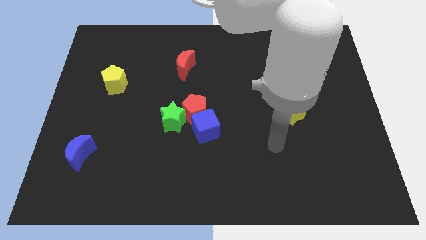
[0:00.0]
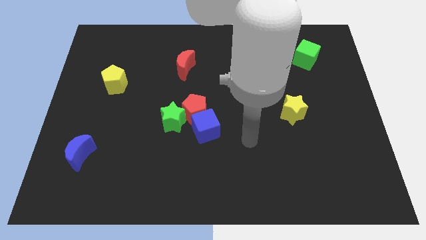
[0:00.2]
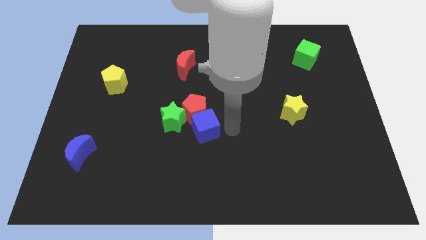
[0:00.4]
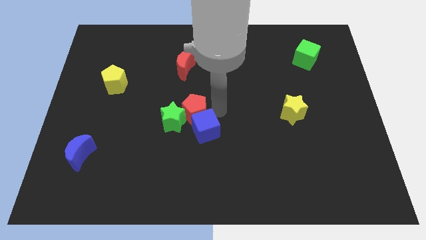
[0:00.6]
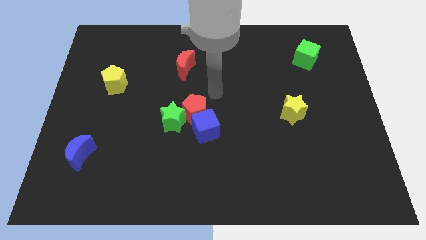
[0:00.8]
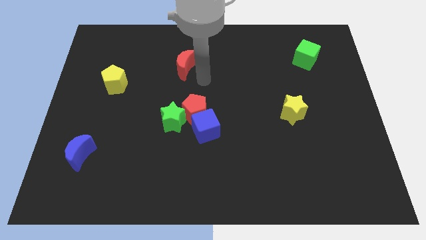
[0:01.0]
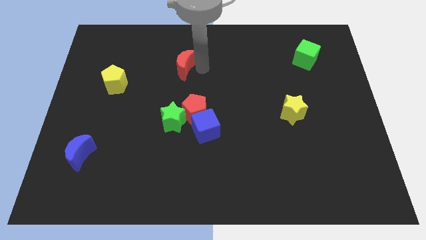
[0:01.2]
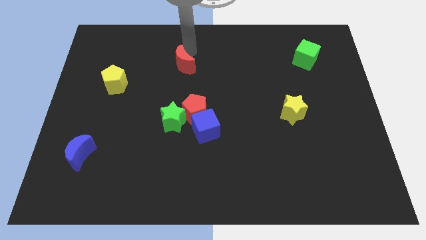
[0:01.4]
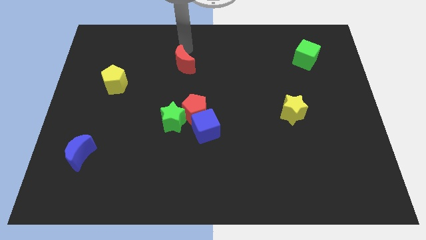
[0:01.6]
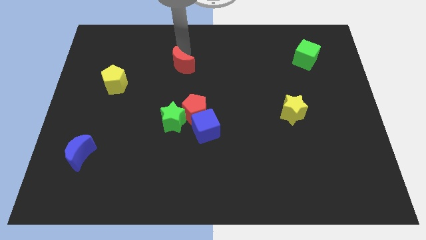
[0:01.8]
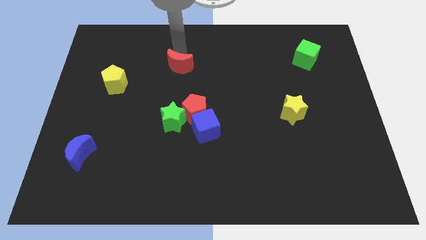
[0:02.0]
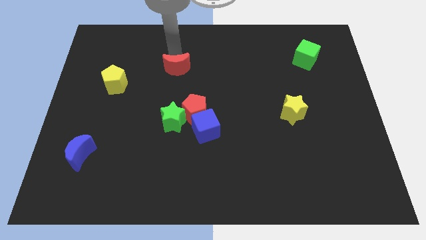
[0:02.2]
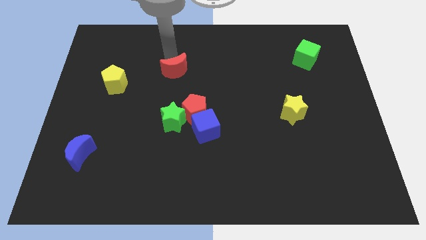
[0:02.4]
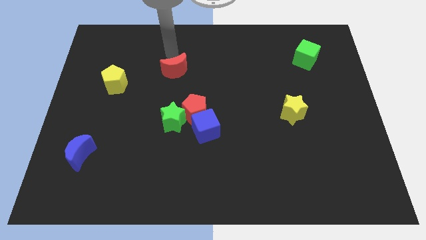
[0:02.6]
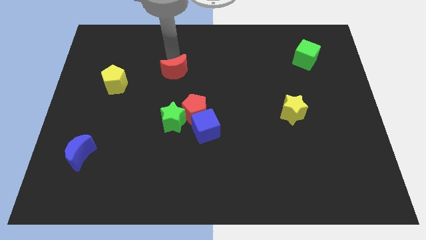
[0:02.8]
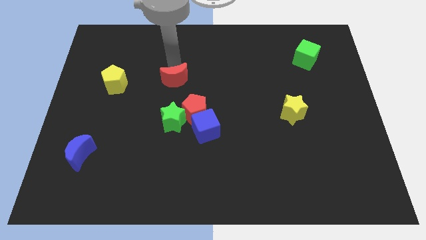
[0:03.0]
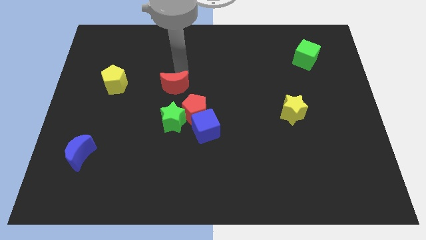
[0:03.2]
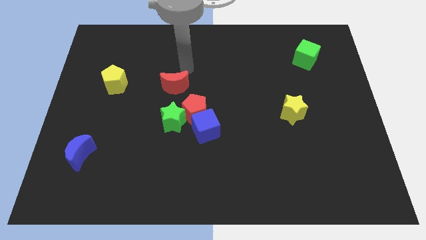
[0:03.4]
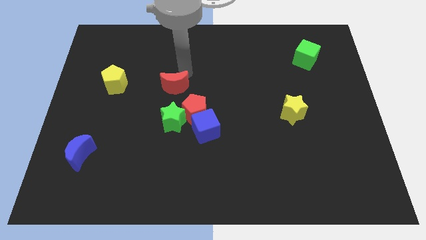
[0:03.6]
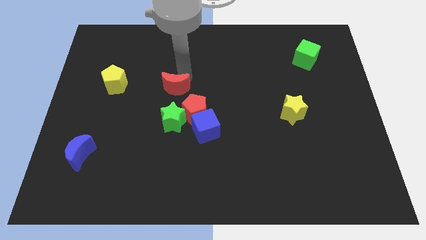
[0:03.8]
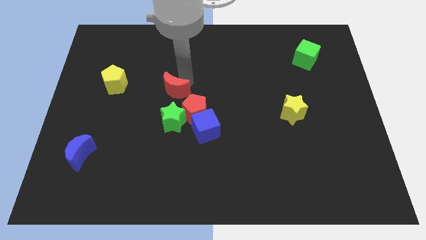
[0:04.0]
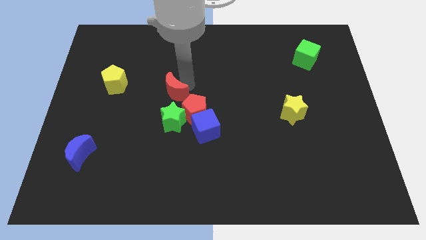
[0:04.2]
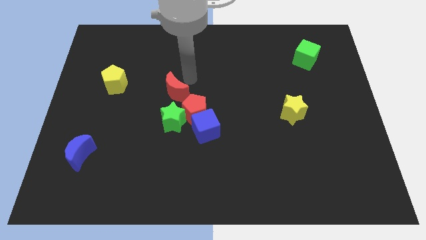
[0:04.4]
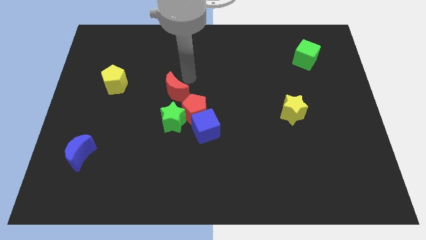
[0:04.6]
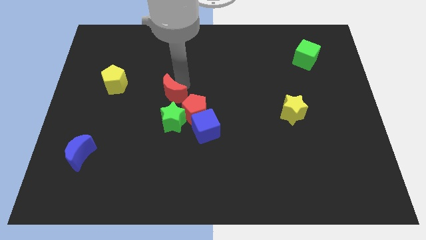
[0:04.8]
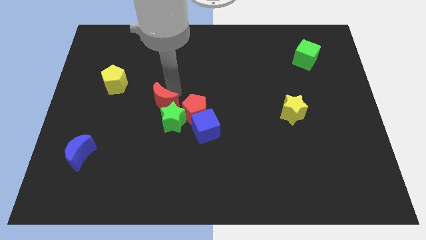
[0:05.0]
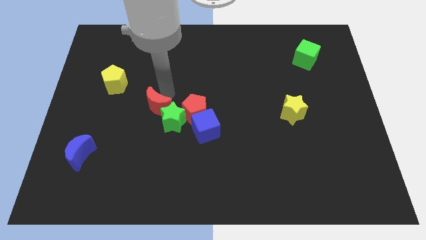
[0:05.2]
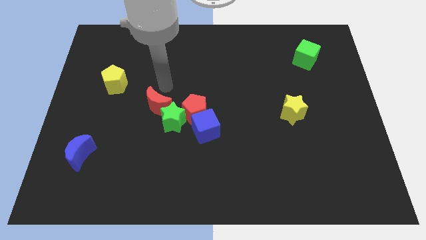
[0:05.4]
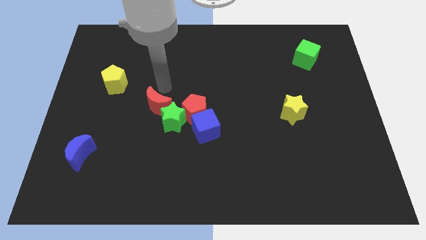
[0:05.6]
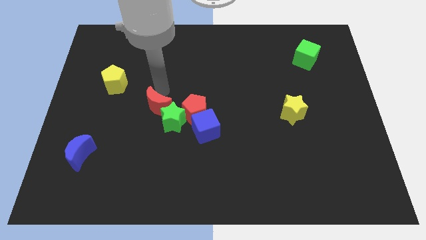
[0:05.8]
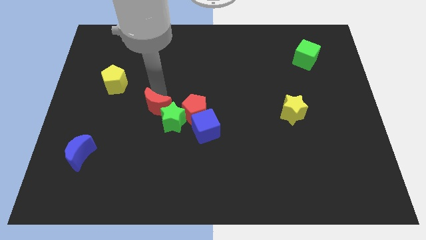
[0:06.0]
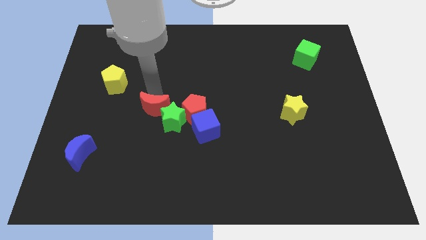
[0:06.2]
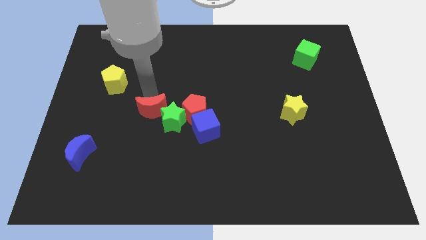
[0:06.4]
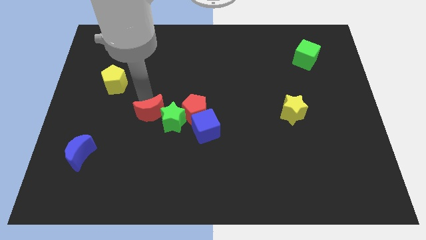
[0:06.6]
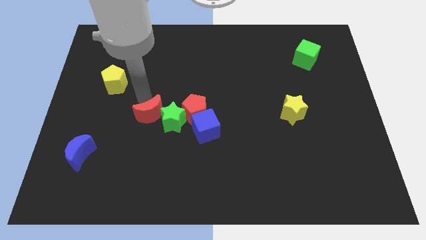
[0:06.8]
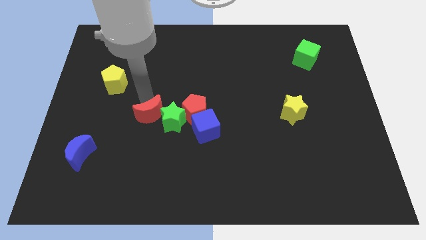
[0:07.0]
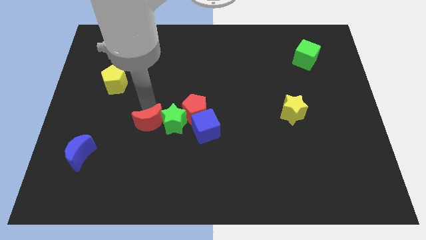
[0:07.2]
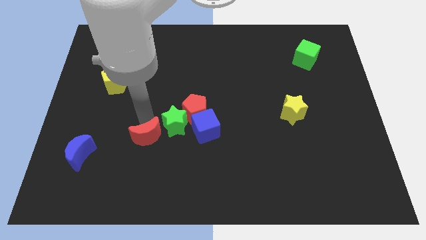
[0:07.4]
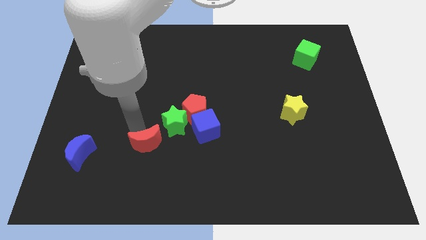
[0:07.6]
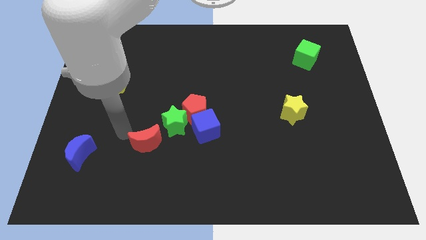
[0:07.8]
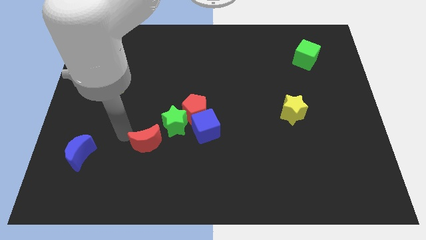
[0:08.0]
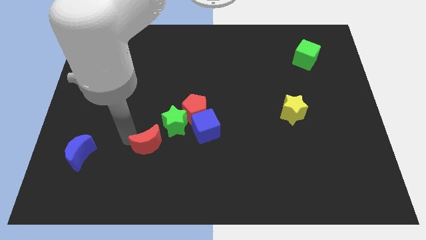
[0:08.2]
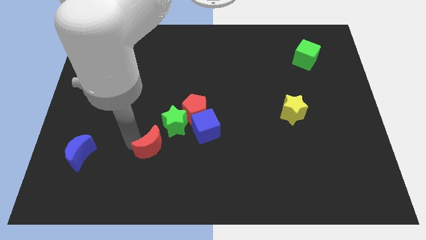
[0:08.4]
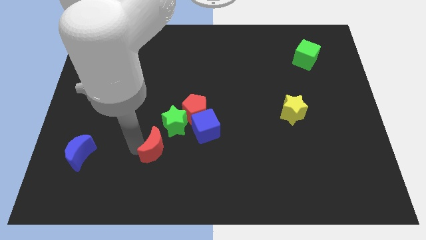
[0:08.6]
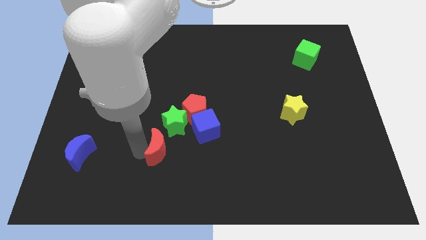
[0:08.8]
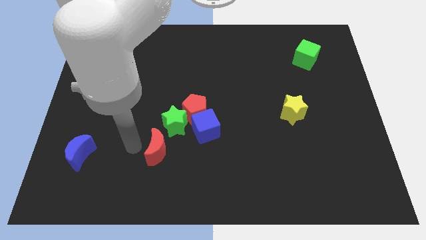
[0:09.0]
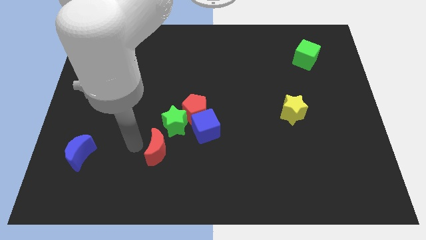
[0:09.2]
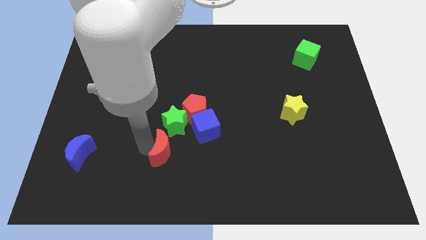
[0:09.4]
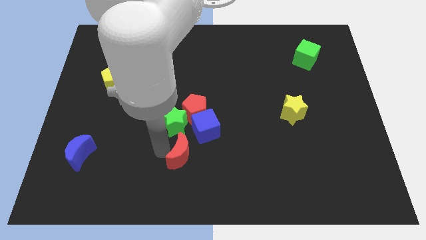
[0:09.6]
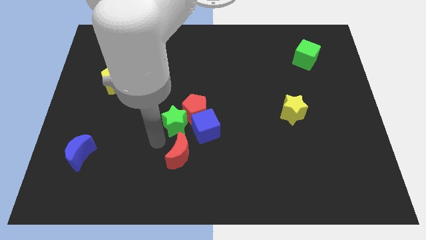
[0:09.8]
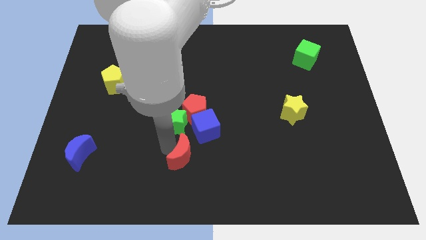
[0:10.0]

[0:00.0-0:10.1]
move the red moon below the blue cube

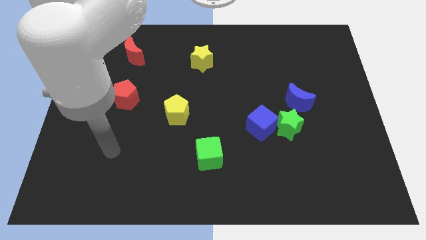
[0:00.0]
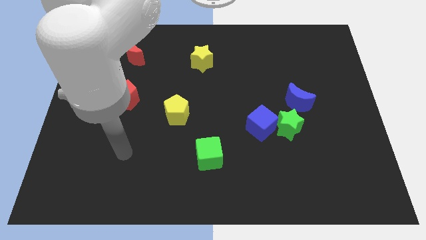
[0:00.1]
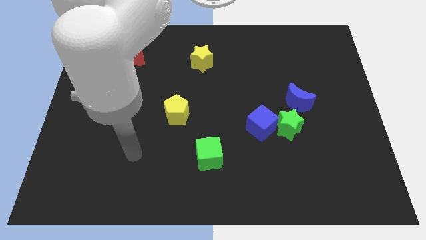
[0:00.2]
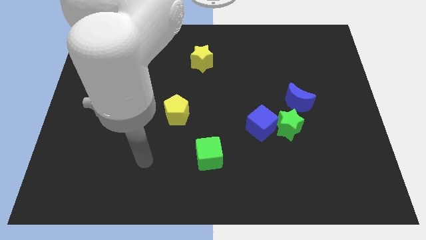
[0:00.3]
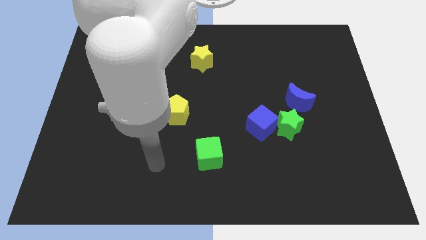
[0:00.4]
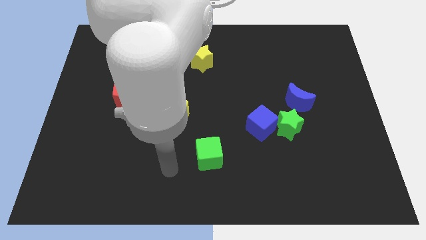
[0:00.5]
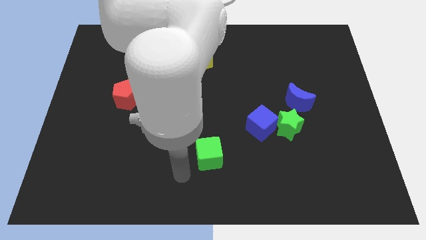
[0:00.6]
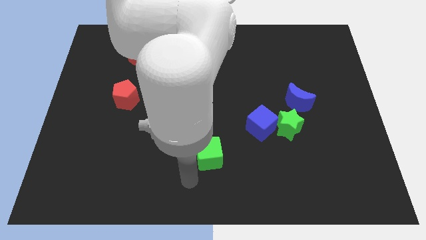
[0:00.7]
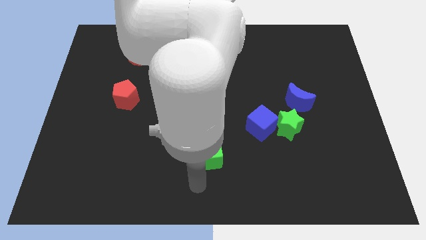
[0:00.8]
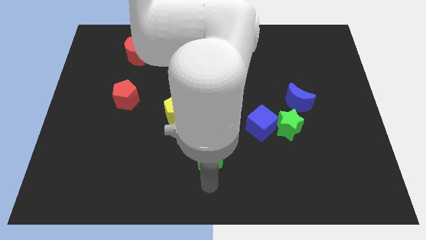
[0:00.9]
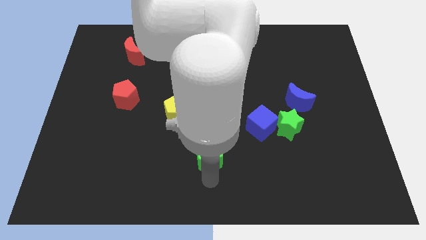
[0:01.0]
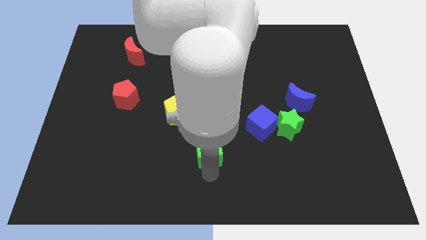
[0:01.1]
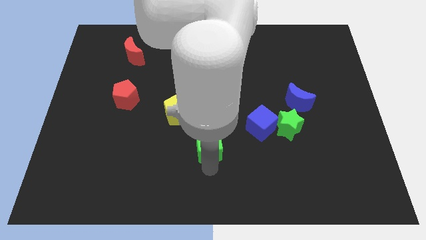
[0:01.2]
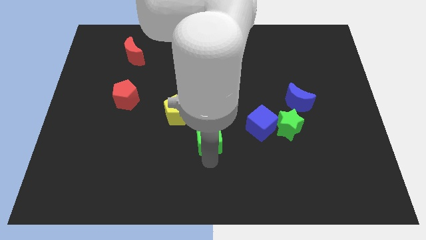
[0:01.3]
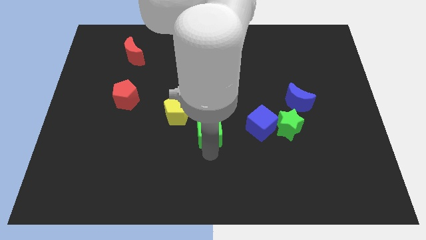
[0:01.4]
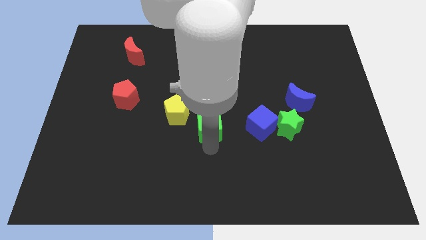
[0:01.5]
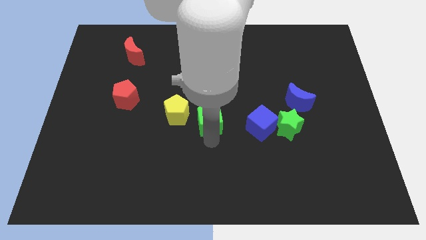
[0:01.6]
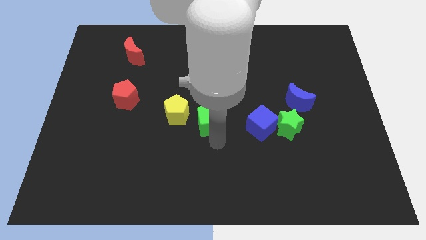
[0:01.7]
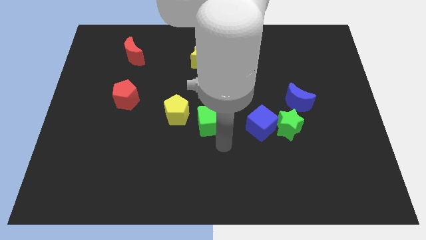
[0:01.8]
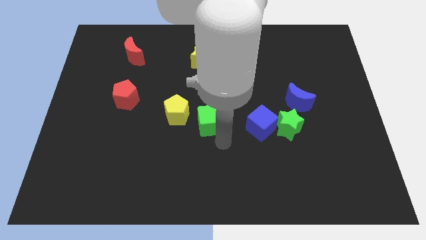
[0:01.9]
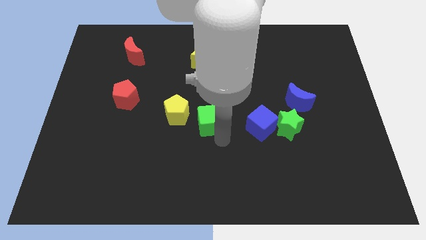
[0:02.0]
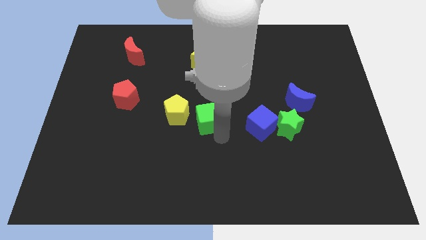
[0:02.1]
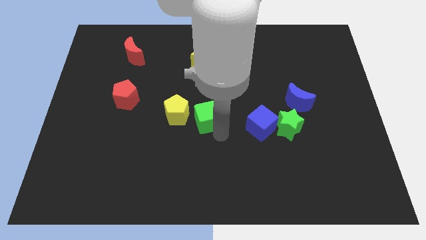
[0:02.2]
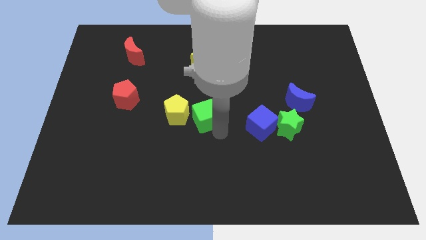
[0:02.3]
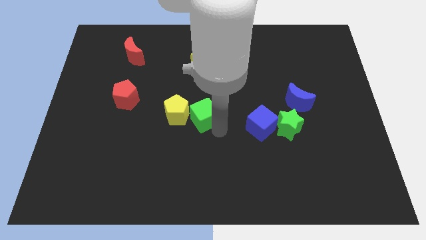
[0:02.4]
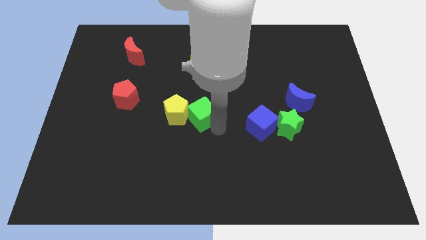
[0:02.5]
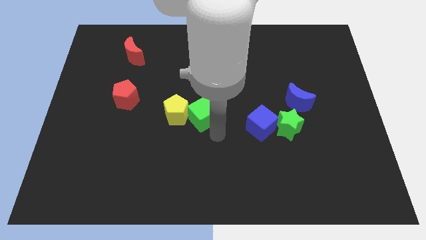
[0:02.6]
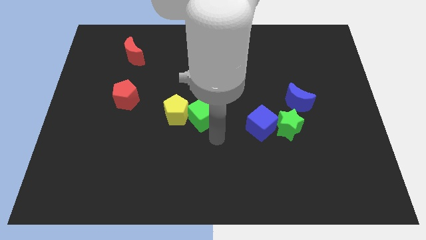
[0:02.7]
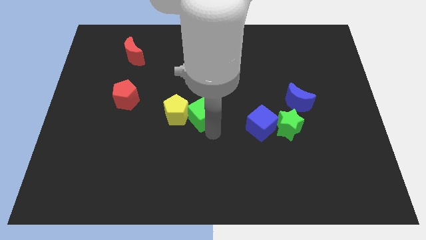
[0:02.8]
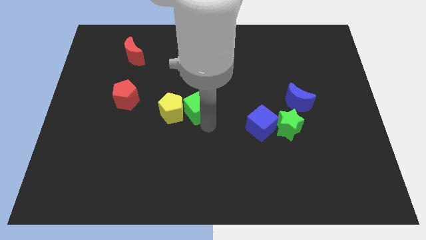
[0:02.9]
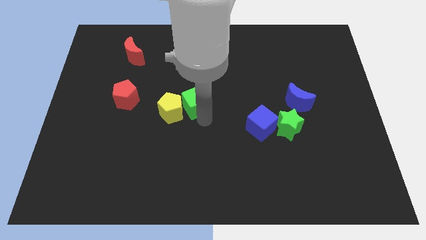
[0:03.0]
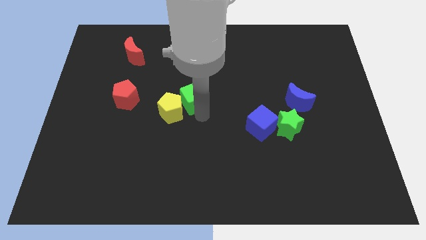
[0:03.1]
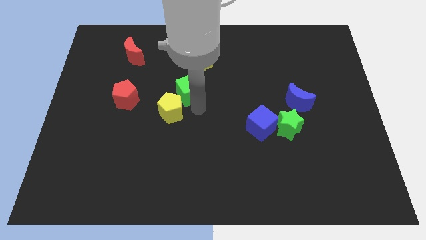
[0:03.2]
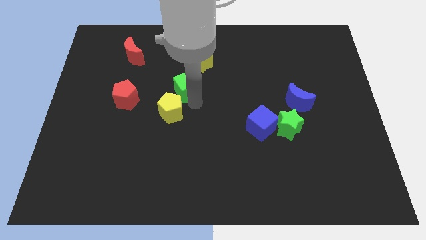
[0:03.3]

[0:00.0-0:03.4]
move the green cube diagonally down and to the left of the yellow star
